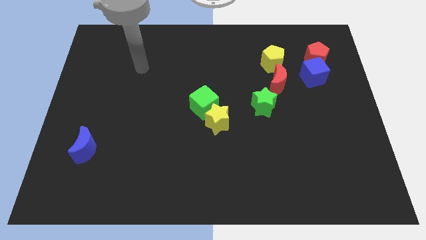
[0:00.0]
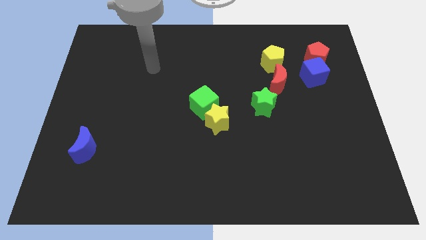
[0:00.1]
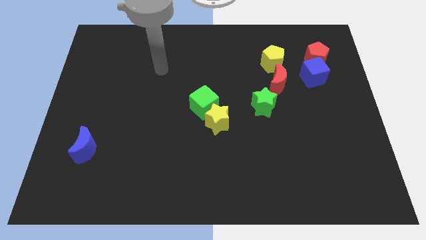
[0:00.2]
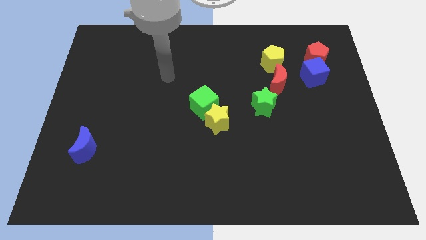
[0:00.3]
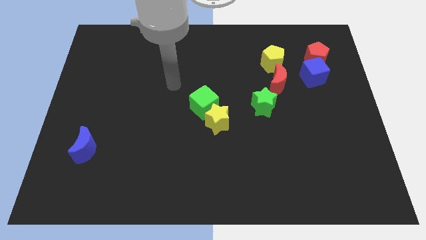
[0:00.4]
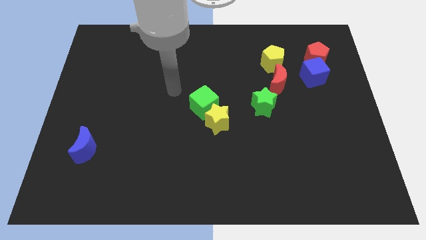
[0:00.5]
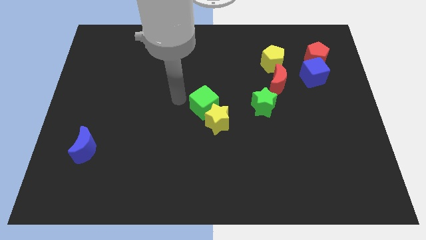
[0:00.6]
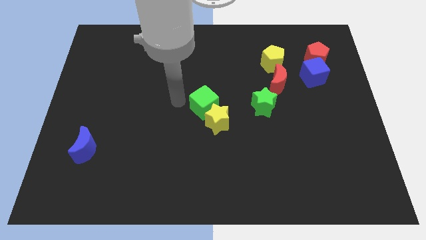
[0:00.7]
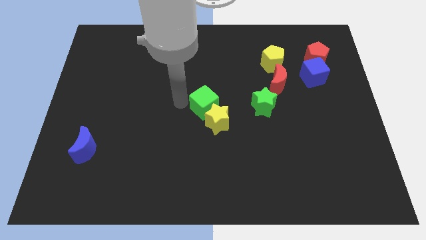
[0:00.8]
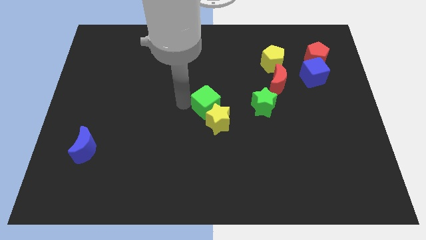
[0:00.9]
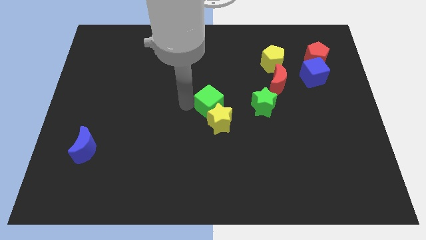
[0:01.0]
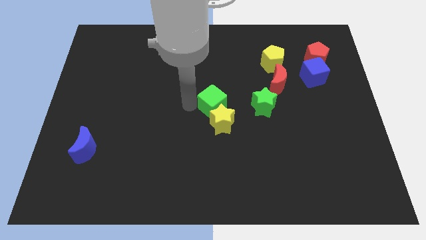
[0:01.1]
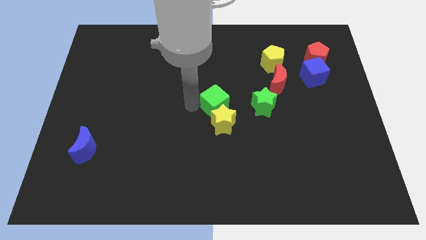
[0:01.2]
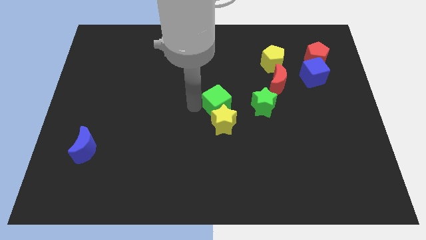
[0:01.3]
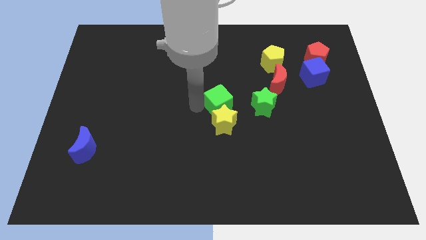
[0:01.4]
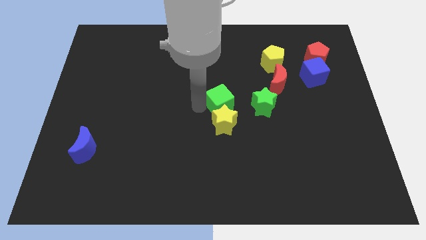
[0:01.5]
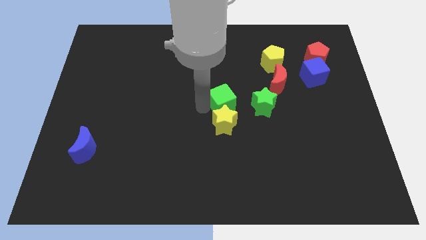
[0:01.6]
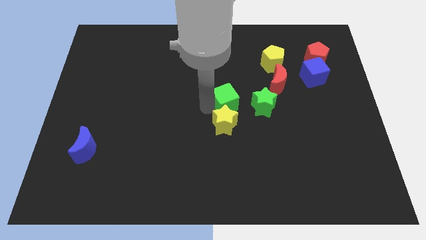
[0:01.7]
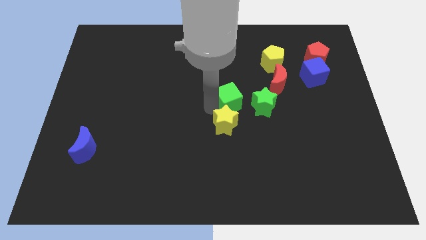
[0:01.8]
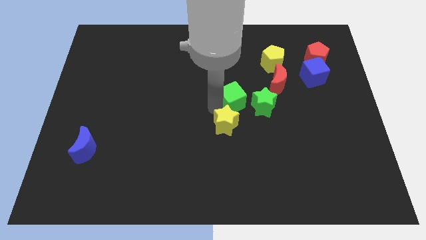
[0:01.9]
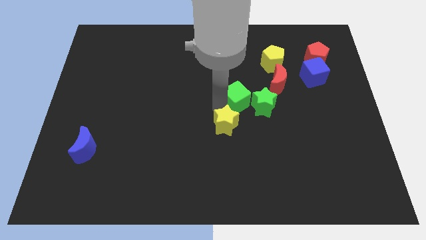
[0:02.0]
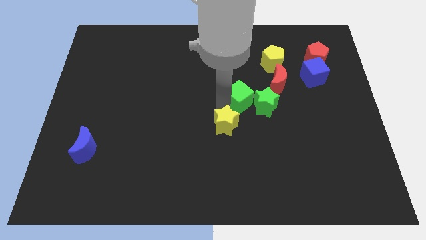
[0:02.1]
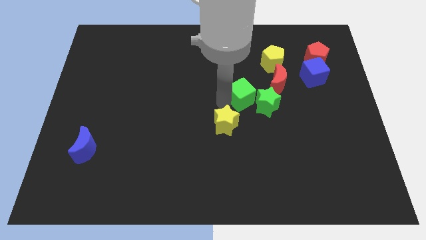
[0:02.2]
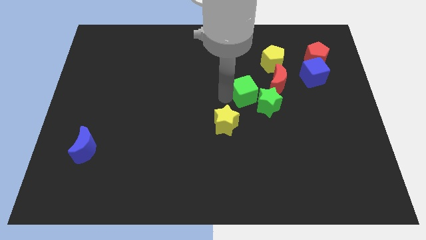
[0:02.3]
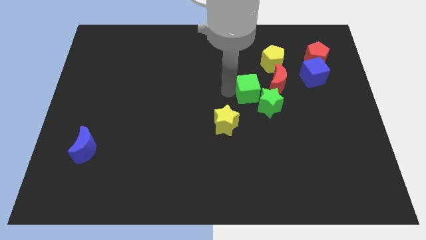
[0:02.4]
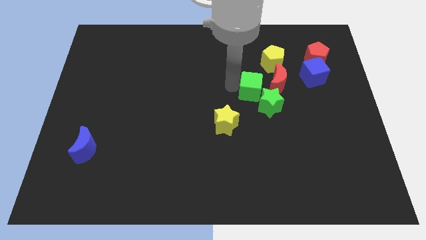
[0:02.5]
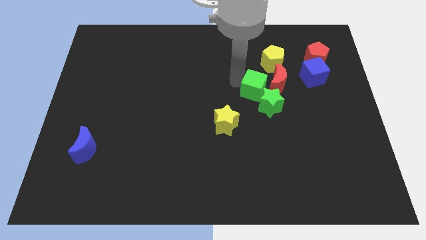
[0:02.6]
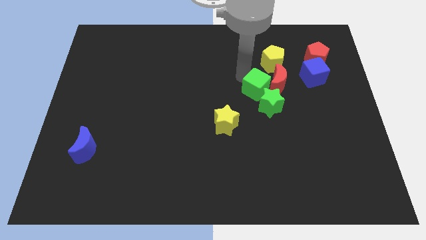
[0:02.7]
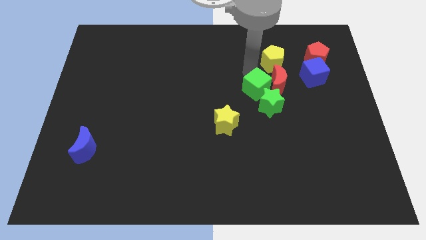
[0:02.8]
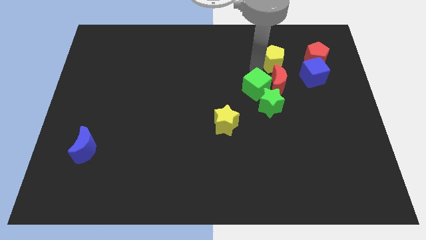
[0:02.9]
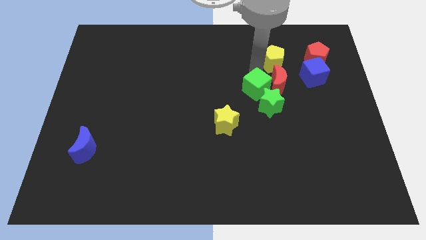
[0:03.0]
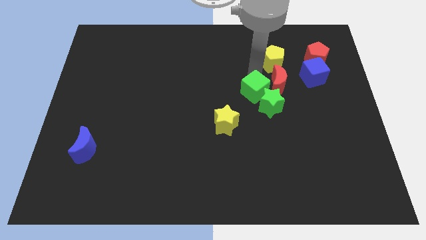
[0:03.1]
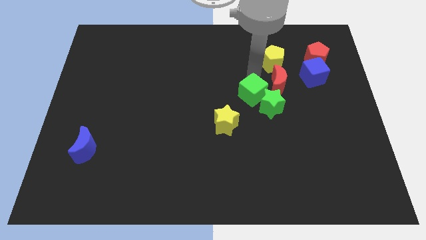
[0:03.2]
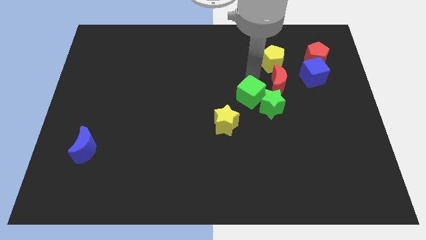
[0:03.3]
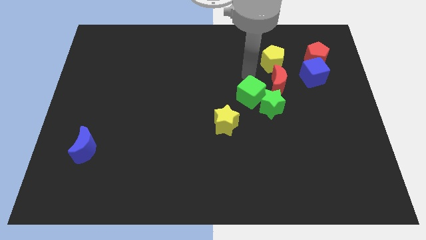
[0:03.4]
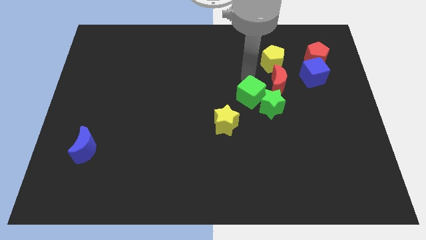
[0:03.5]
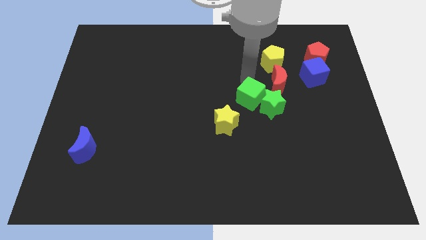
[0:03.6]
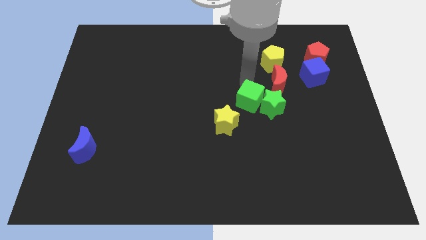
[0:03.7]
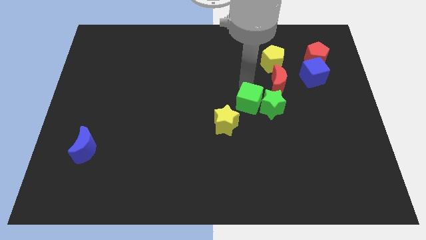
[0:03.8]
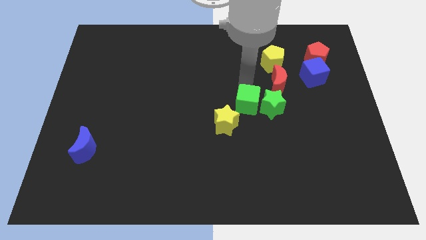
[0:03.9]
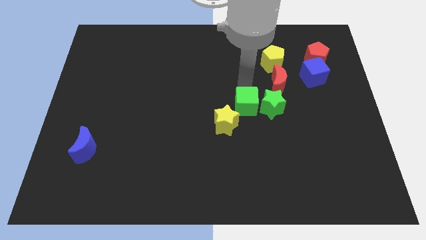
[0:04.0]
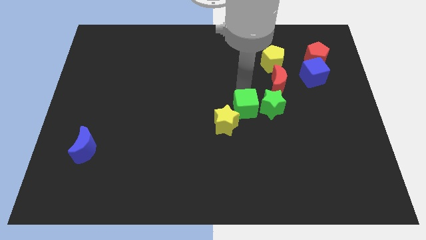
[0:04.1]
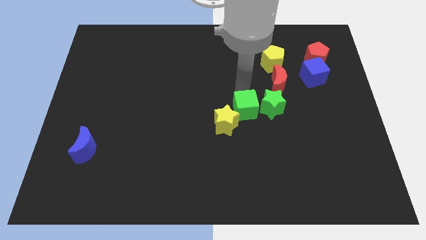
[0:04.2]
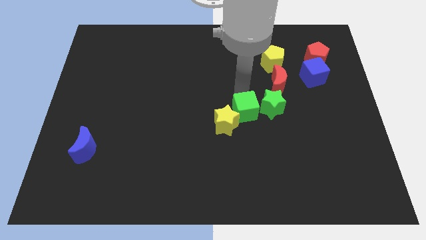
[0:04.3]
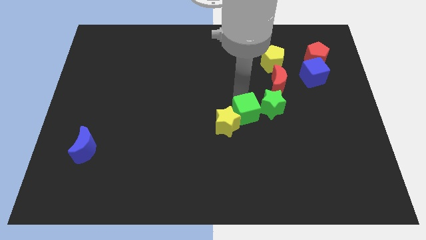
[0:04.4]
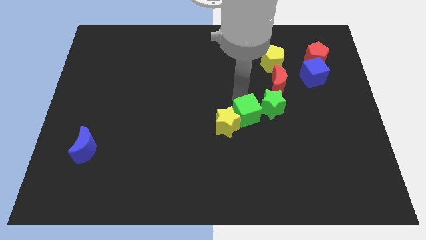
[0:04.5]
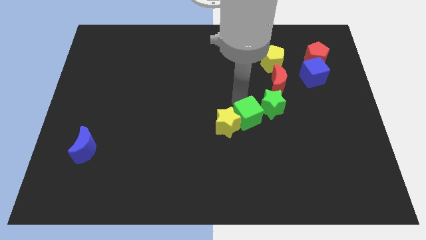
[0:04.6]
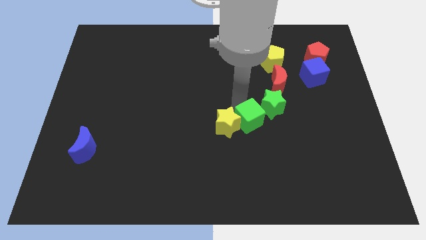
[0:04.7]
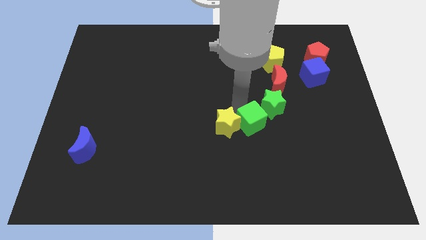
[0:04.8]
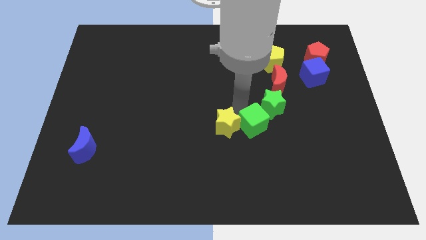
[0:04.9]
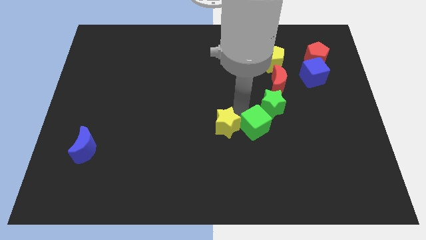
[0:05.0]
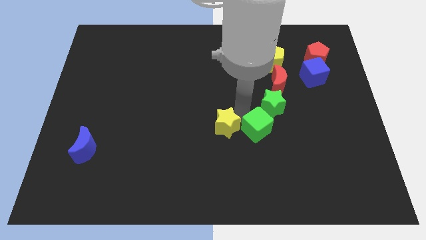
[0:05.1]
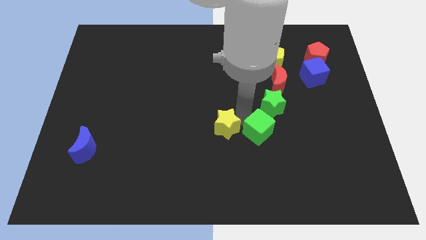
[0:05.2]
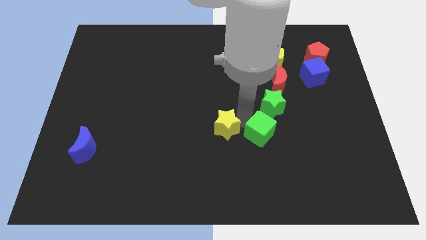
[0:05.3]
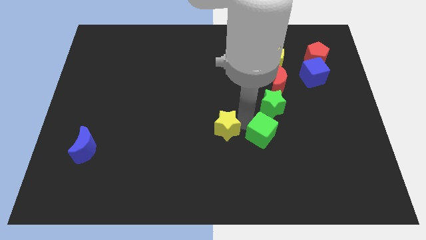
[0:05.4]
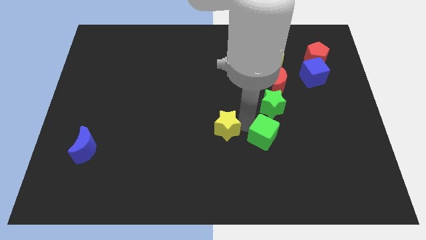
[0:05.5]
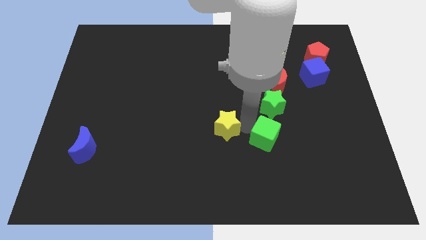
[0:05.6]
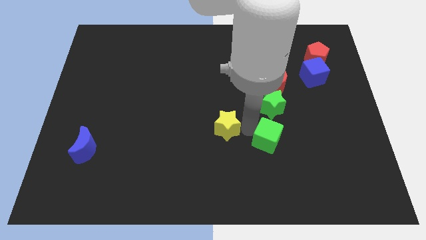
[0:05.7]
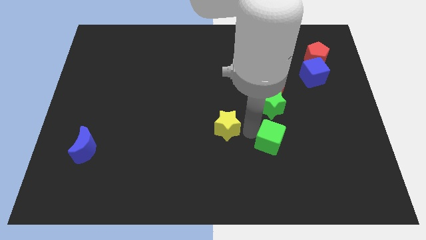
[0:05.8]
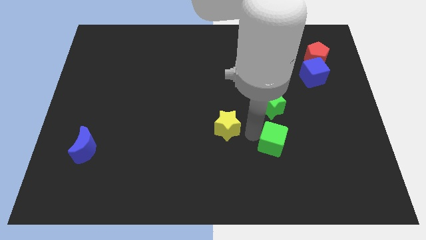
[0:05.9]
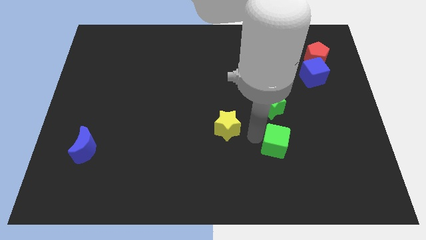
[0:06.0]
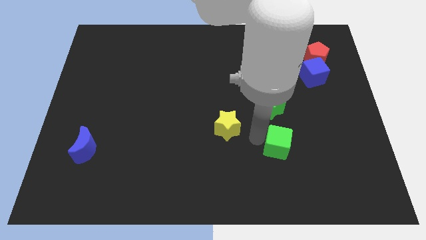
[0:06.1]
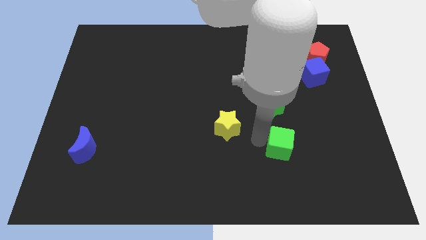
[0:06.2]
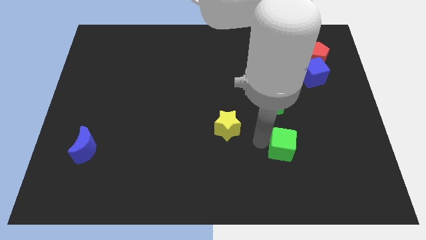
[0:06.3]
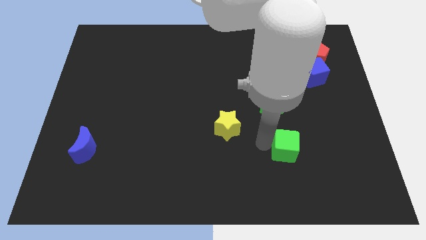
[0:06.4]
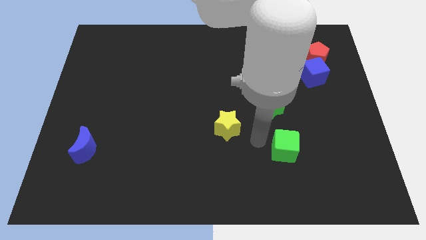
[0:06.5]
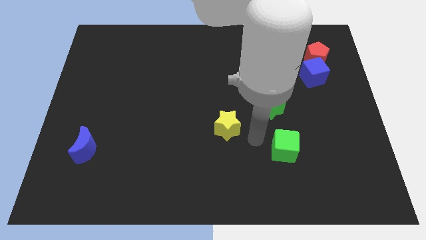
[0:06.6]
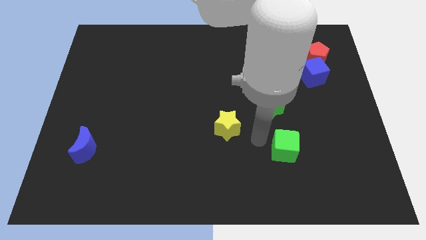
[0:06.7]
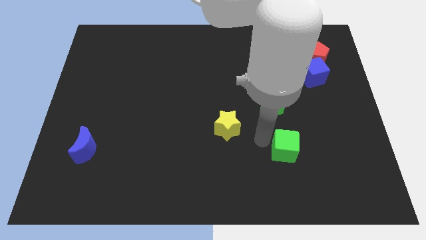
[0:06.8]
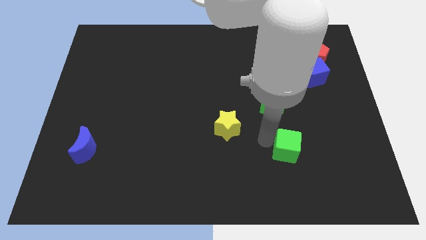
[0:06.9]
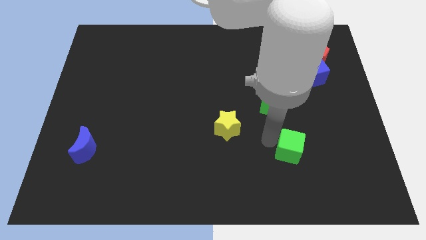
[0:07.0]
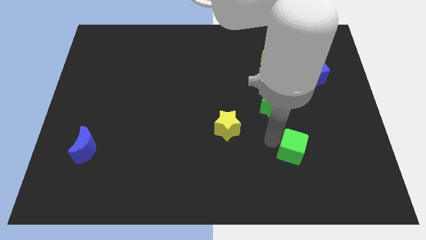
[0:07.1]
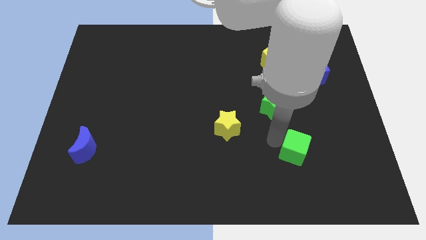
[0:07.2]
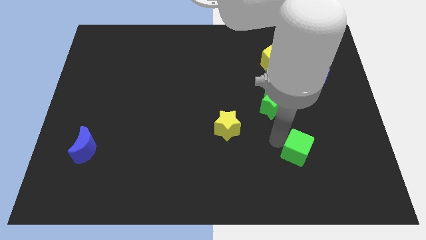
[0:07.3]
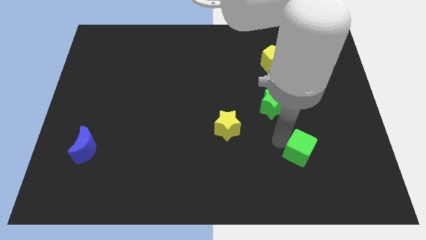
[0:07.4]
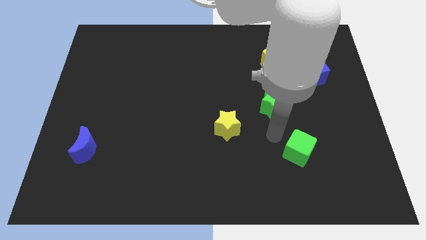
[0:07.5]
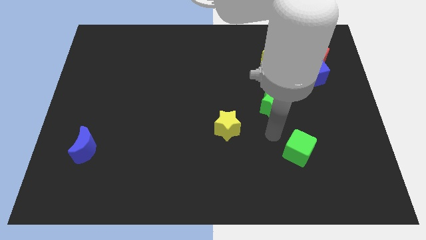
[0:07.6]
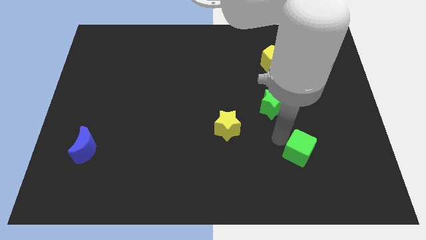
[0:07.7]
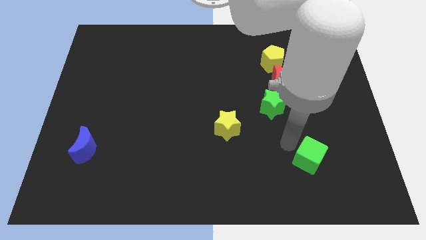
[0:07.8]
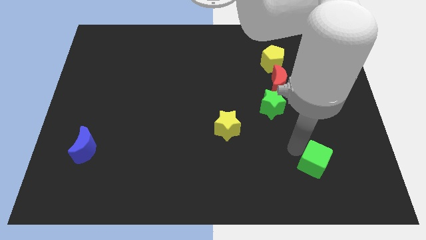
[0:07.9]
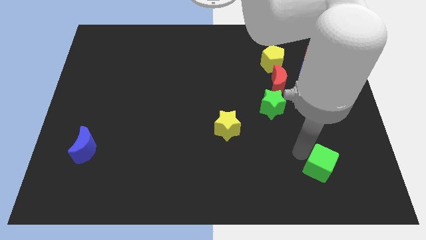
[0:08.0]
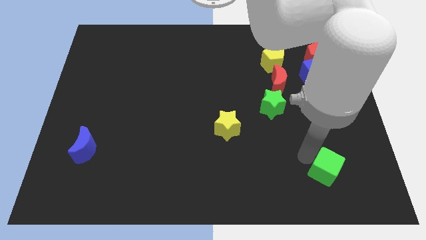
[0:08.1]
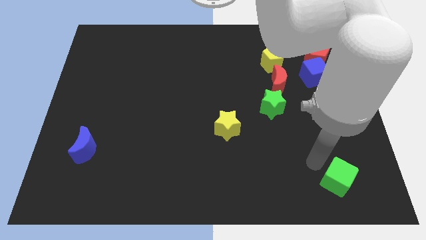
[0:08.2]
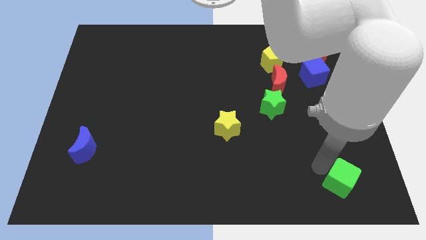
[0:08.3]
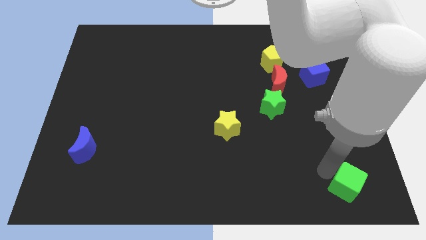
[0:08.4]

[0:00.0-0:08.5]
push the green cube to the bottom right
